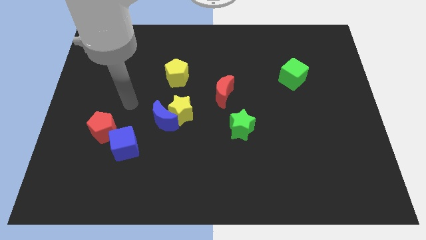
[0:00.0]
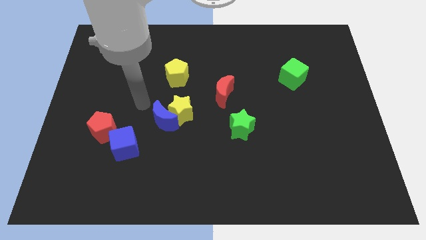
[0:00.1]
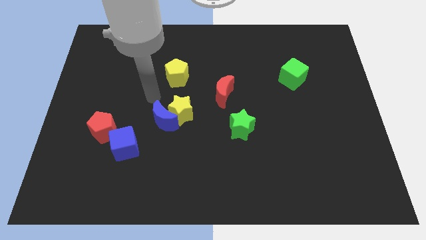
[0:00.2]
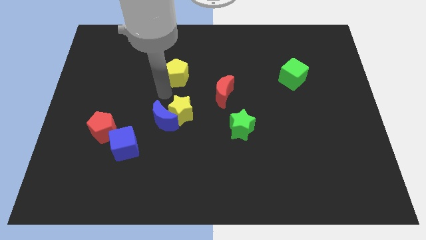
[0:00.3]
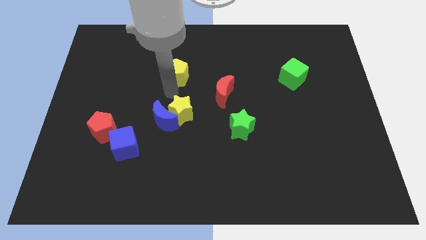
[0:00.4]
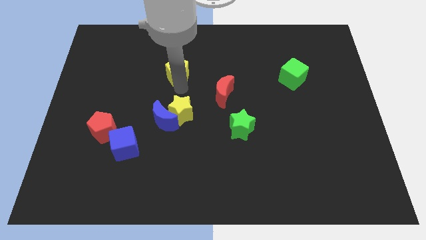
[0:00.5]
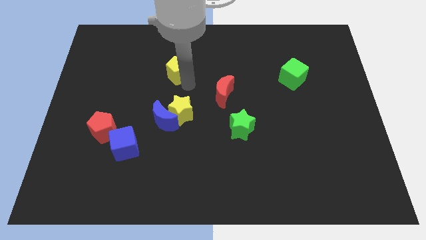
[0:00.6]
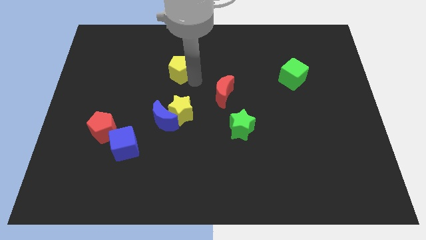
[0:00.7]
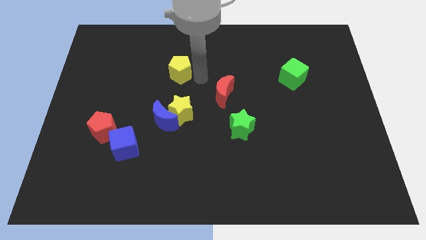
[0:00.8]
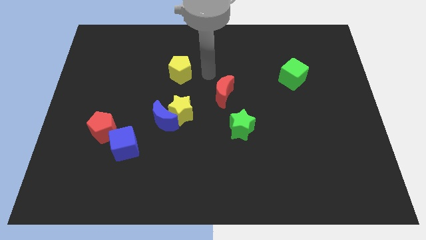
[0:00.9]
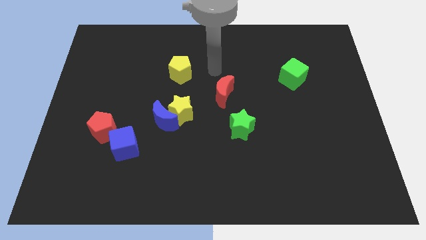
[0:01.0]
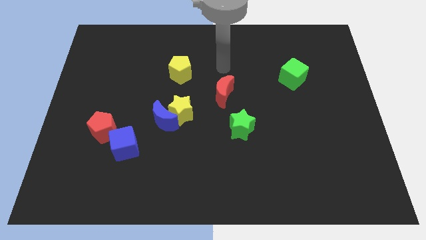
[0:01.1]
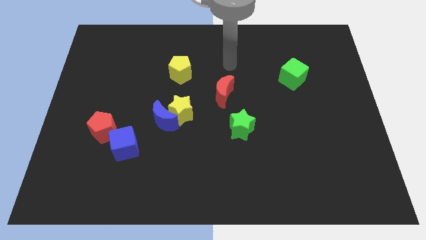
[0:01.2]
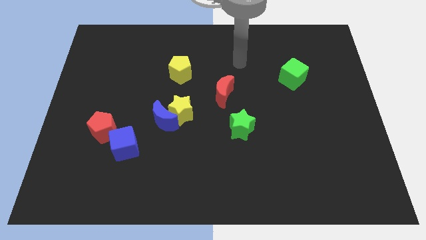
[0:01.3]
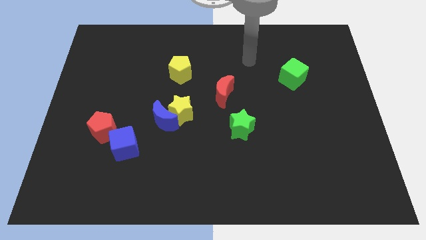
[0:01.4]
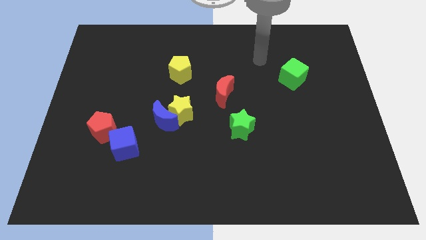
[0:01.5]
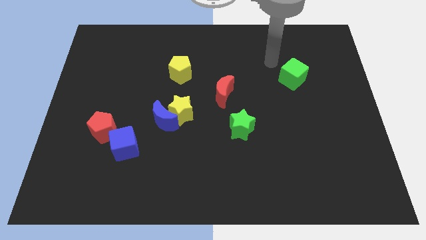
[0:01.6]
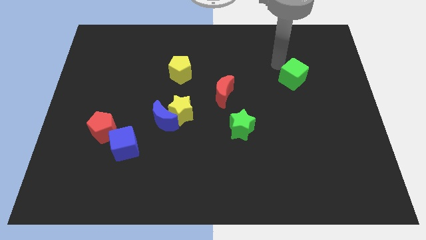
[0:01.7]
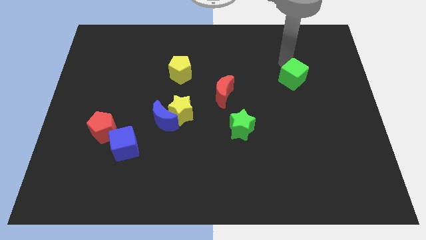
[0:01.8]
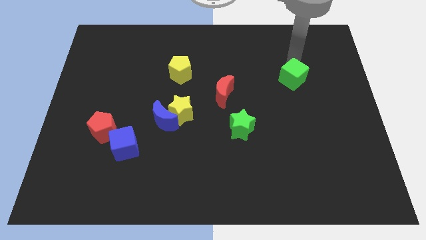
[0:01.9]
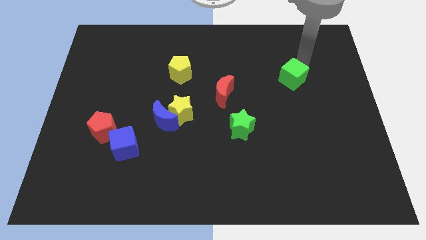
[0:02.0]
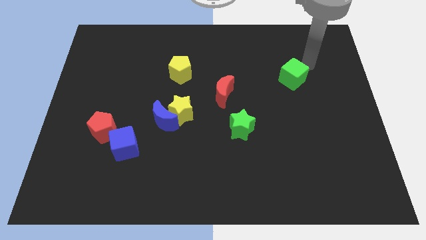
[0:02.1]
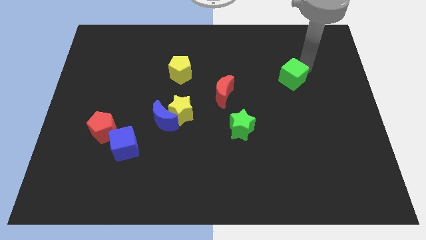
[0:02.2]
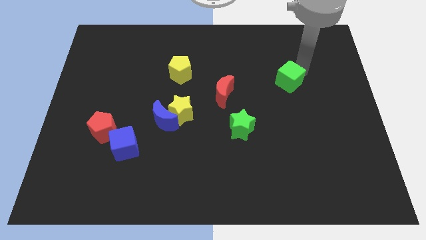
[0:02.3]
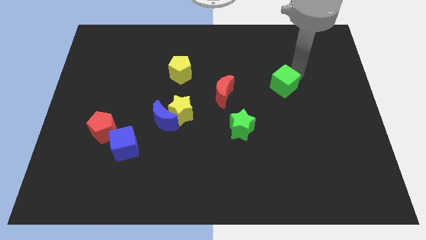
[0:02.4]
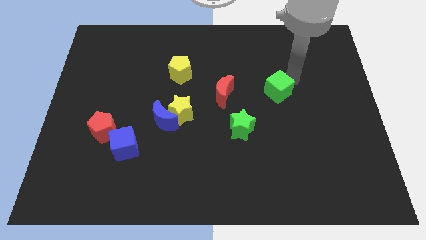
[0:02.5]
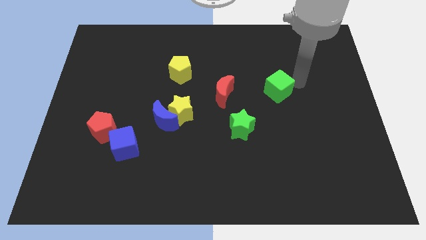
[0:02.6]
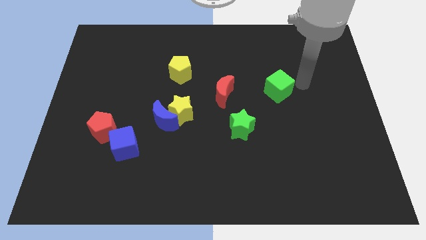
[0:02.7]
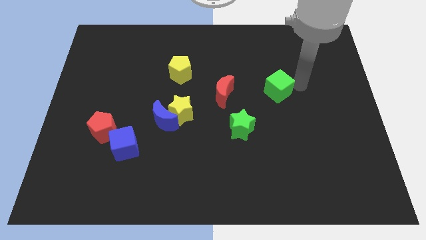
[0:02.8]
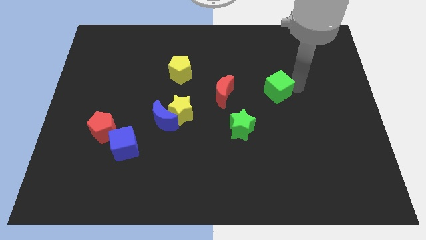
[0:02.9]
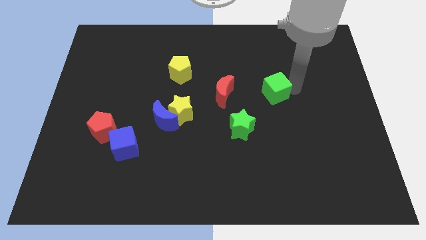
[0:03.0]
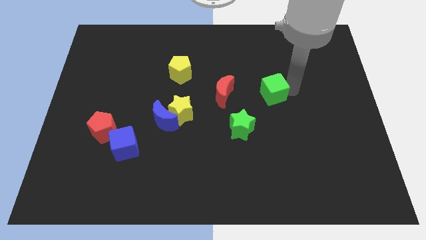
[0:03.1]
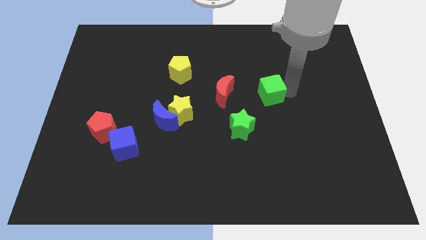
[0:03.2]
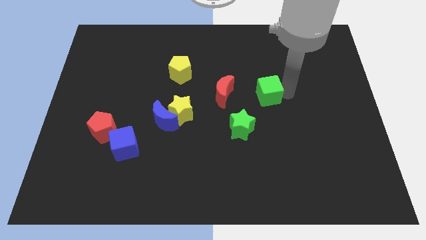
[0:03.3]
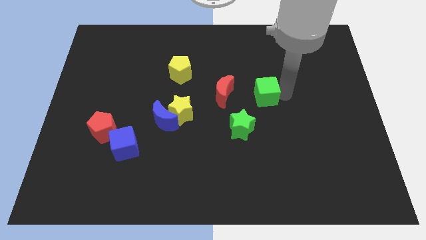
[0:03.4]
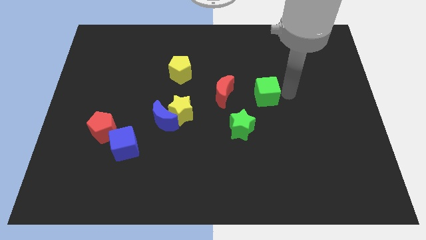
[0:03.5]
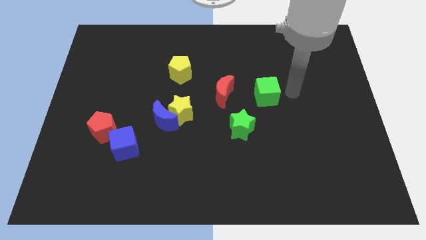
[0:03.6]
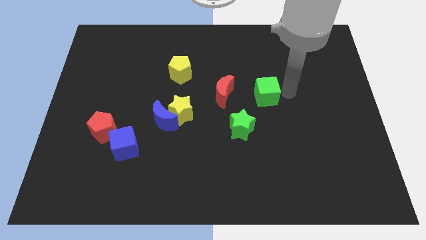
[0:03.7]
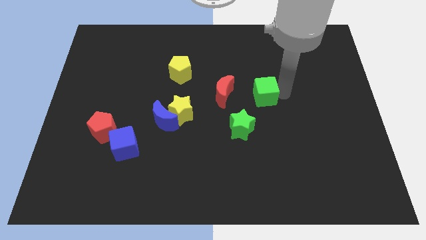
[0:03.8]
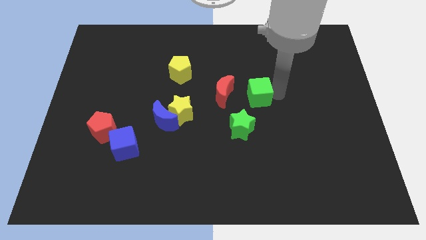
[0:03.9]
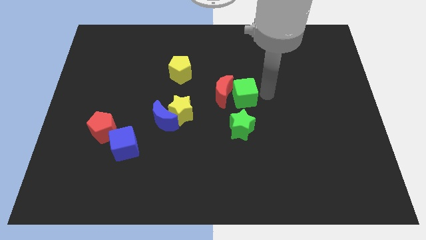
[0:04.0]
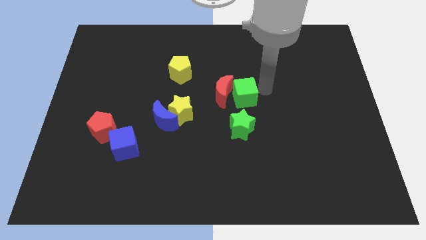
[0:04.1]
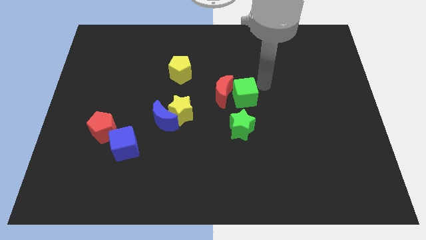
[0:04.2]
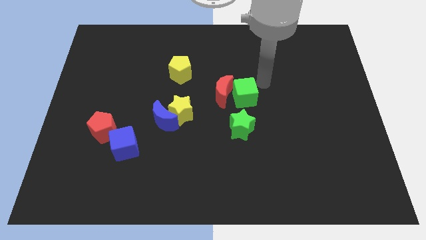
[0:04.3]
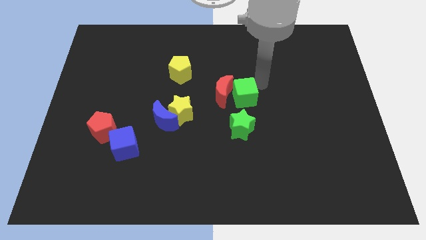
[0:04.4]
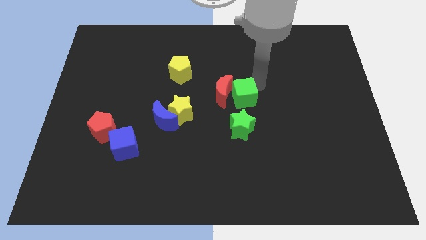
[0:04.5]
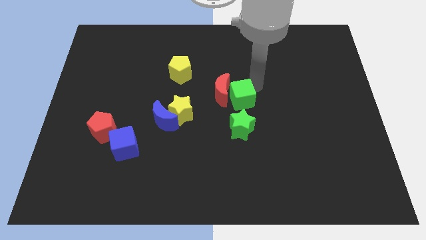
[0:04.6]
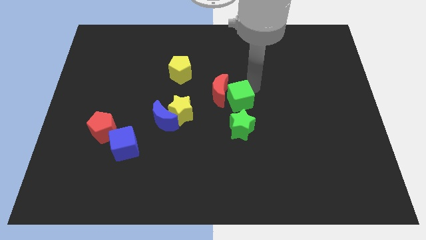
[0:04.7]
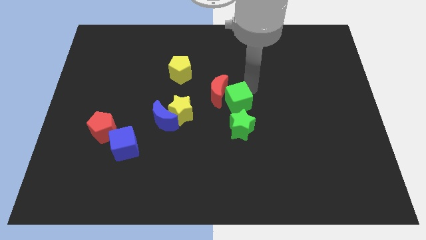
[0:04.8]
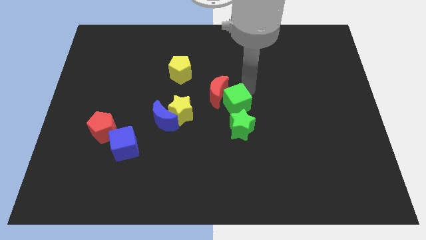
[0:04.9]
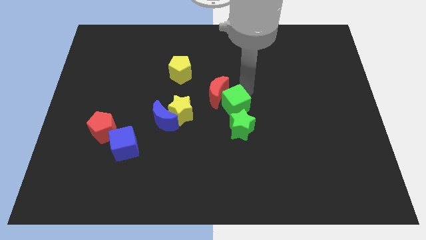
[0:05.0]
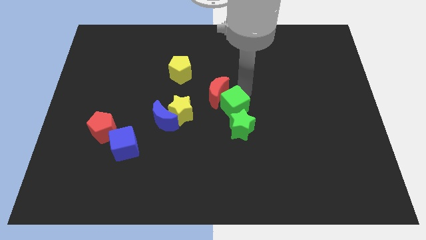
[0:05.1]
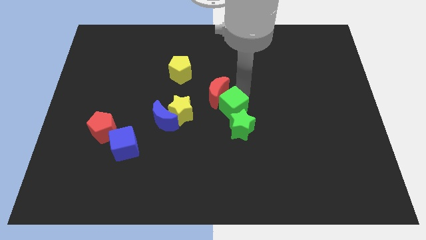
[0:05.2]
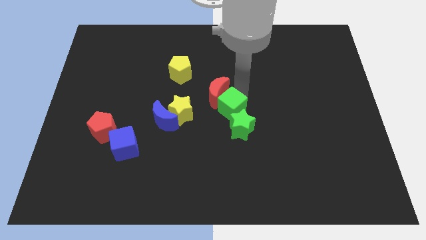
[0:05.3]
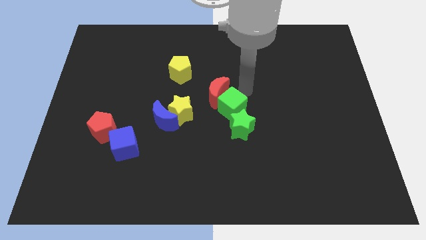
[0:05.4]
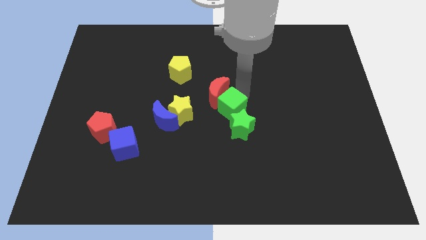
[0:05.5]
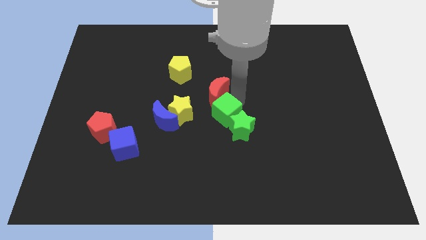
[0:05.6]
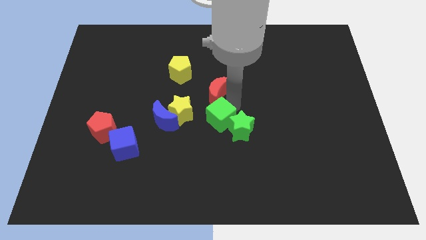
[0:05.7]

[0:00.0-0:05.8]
slide the green cube down and left

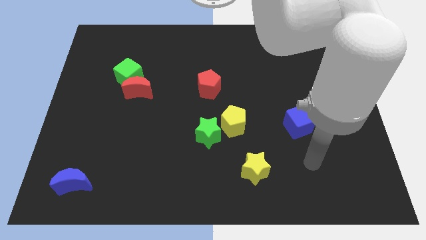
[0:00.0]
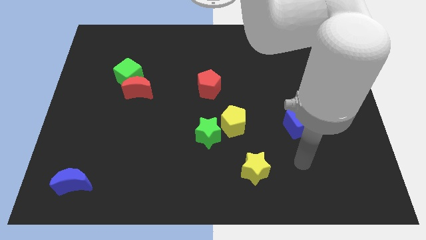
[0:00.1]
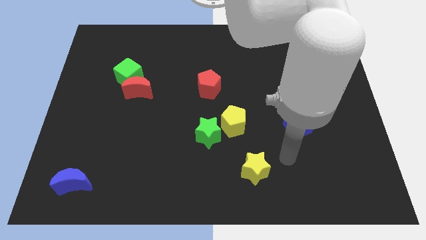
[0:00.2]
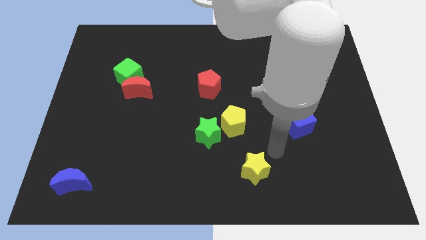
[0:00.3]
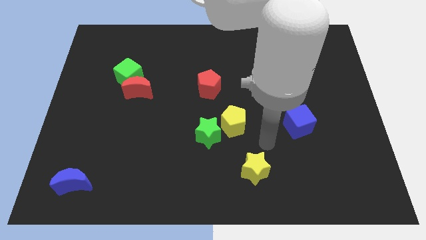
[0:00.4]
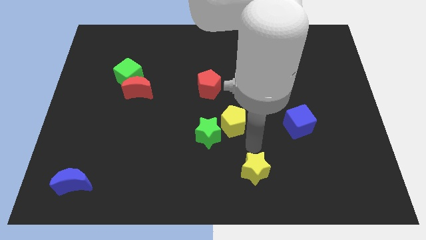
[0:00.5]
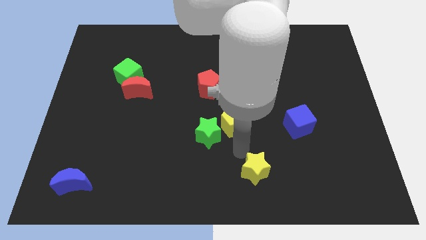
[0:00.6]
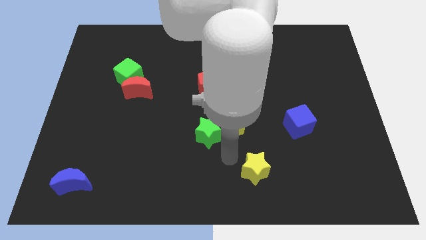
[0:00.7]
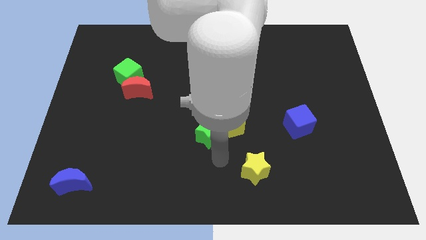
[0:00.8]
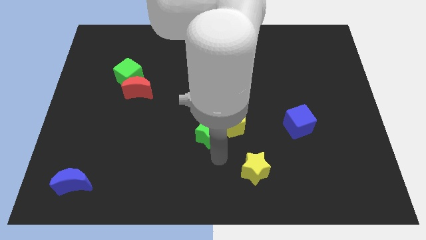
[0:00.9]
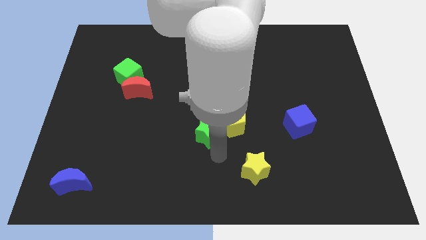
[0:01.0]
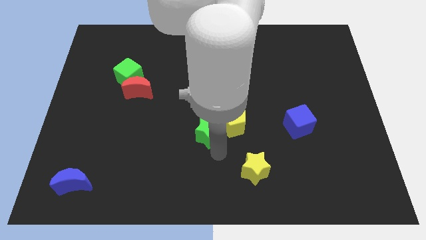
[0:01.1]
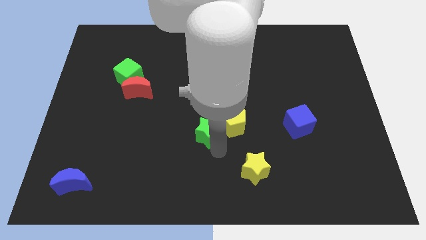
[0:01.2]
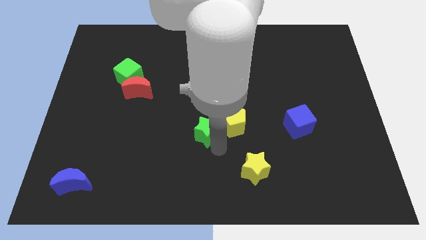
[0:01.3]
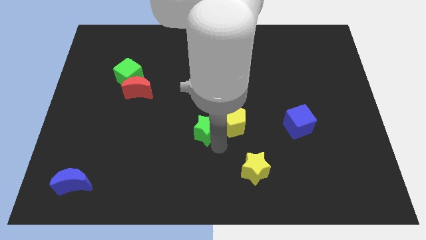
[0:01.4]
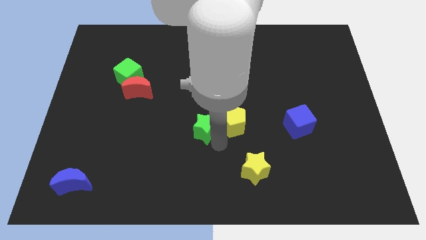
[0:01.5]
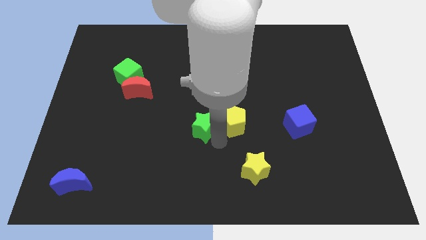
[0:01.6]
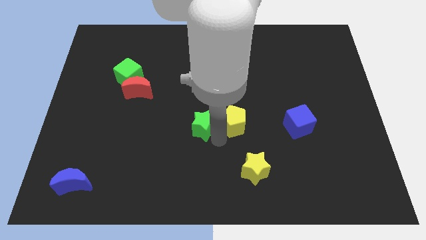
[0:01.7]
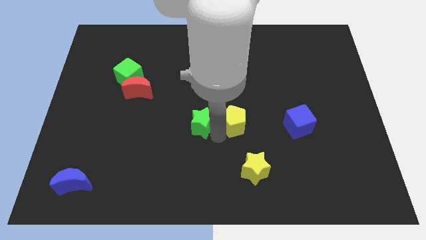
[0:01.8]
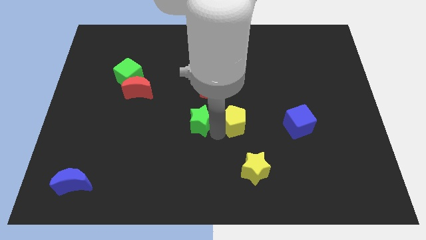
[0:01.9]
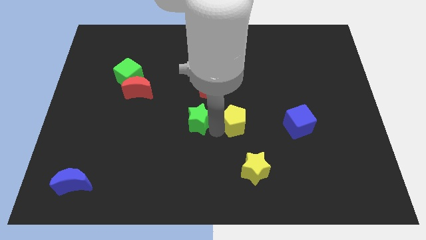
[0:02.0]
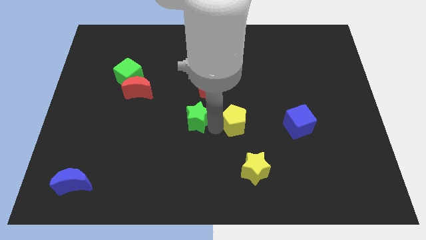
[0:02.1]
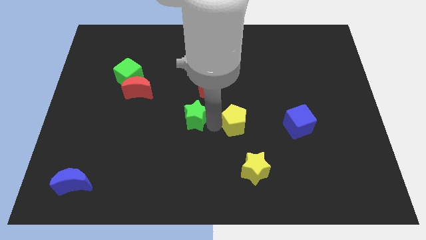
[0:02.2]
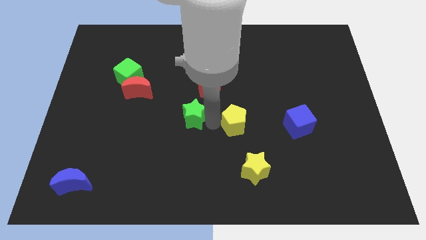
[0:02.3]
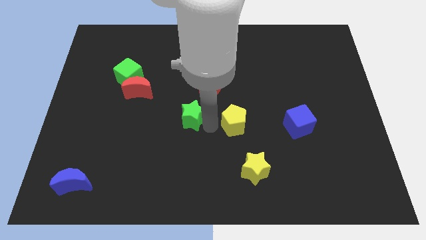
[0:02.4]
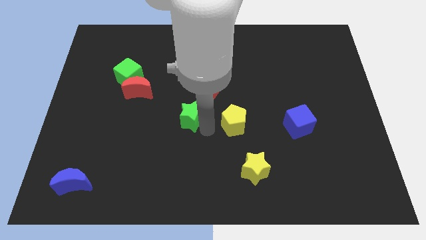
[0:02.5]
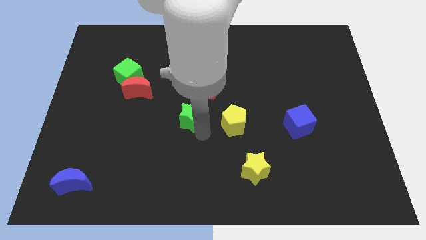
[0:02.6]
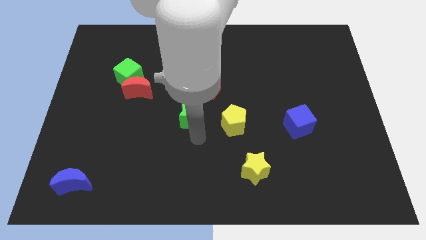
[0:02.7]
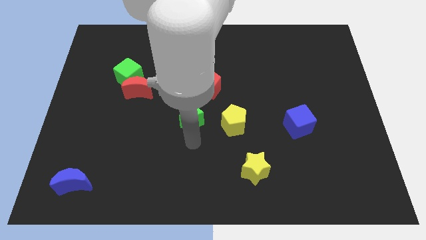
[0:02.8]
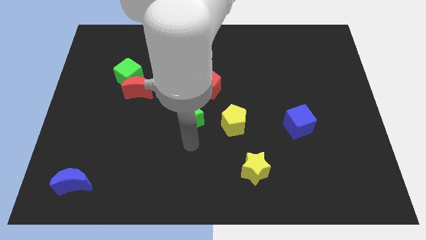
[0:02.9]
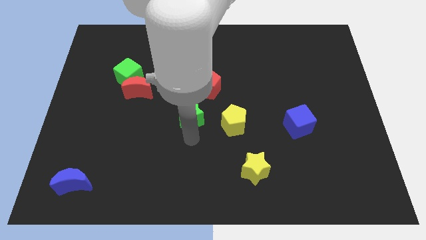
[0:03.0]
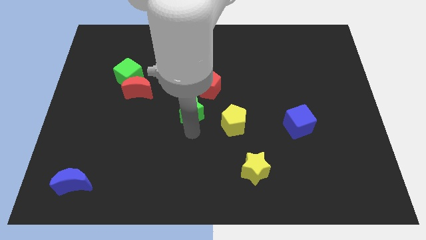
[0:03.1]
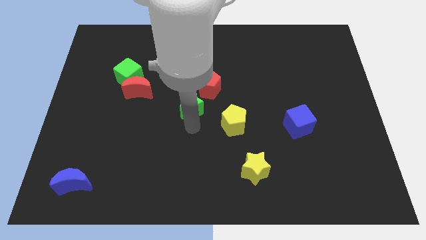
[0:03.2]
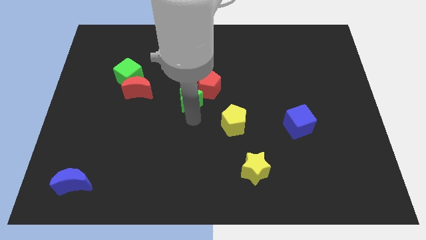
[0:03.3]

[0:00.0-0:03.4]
slightly slide the green star up
